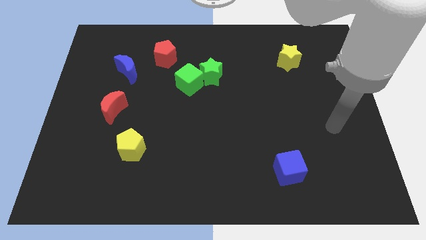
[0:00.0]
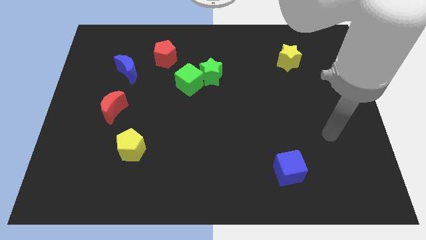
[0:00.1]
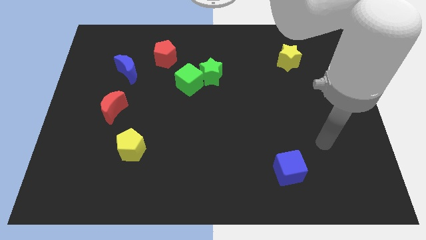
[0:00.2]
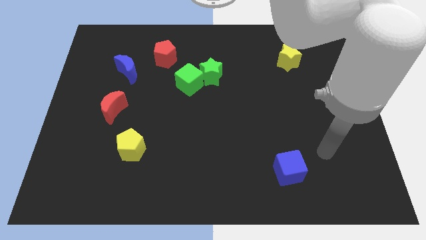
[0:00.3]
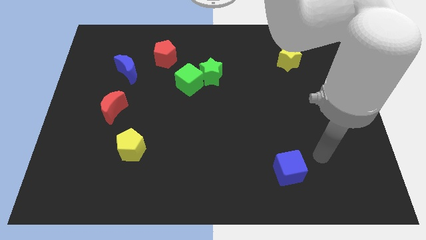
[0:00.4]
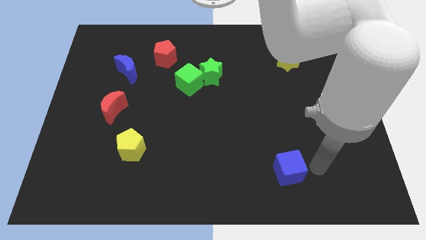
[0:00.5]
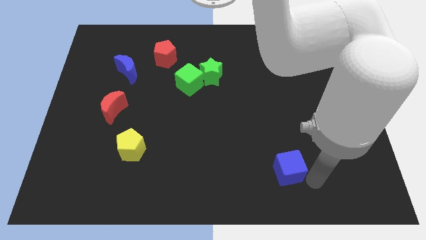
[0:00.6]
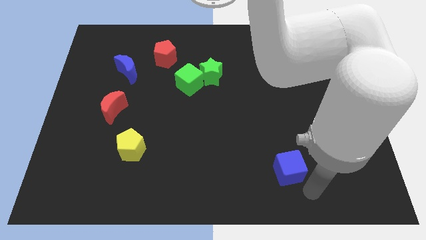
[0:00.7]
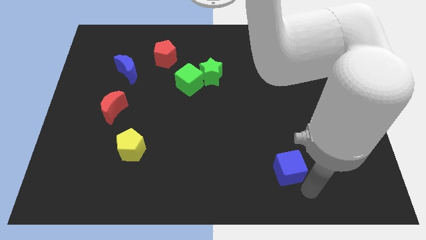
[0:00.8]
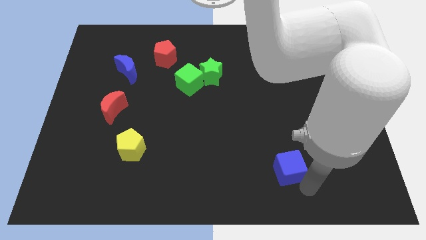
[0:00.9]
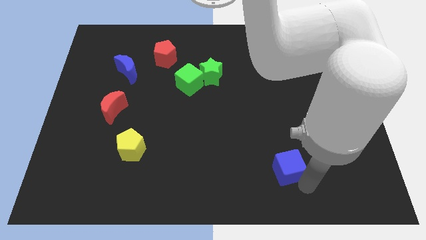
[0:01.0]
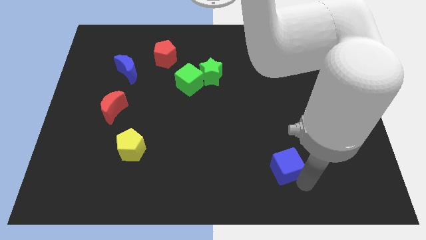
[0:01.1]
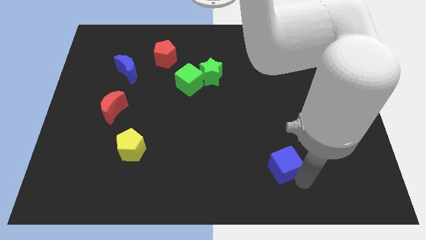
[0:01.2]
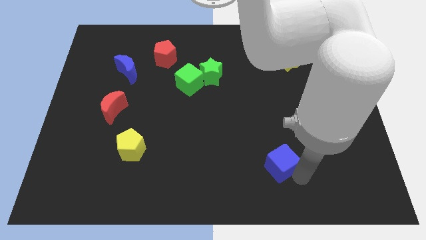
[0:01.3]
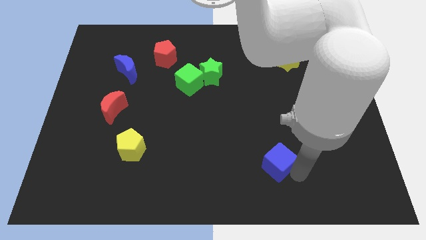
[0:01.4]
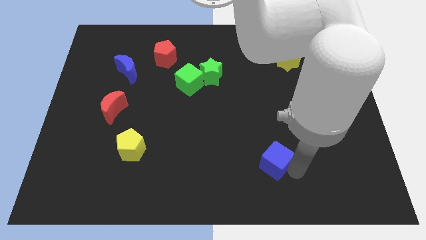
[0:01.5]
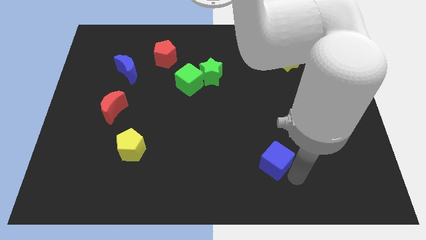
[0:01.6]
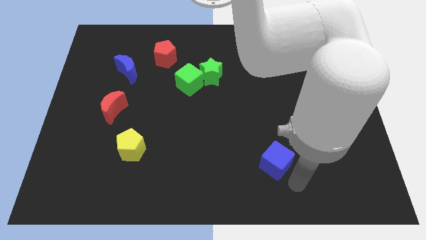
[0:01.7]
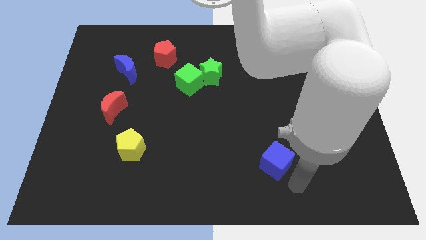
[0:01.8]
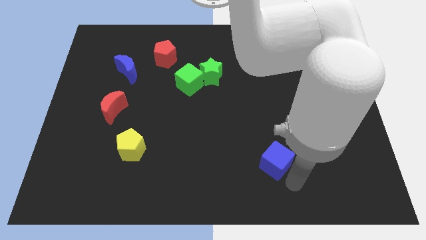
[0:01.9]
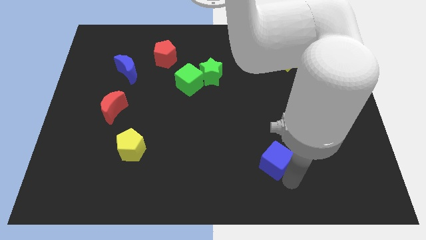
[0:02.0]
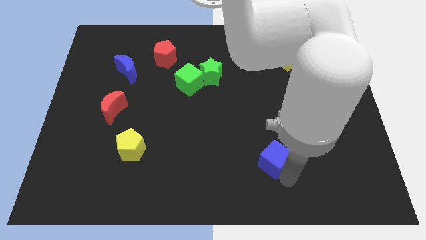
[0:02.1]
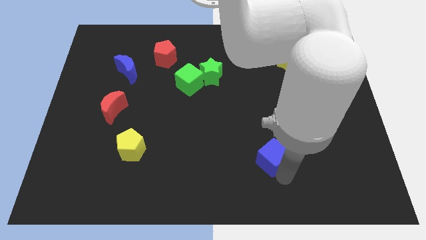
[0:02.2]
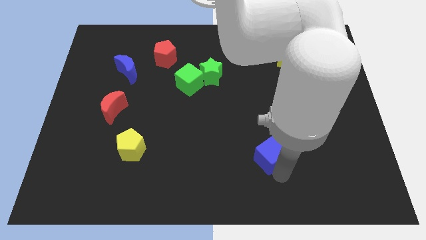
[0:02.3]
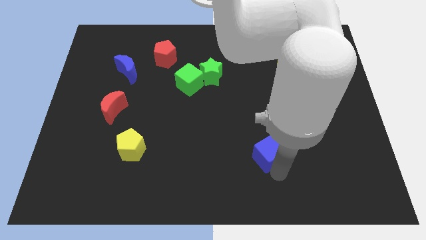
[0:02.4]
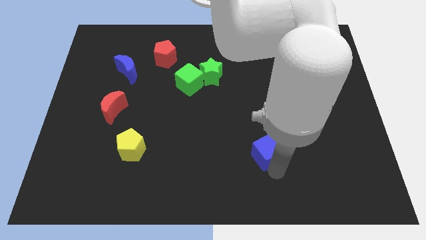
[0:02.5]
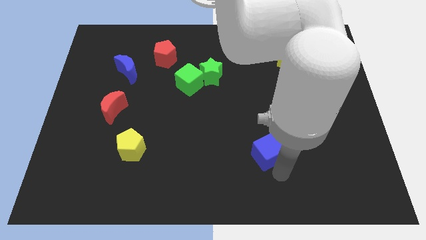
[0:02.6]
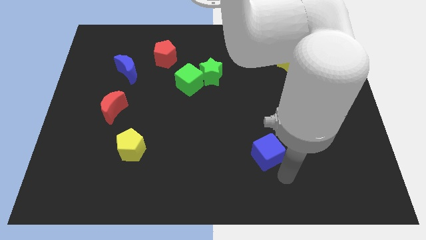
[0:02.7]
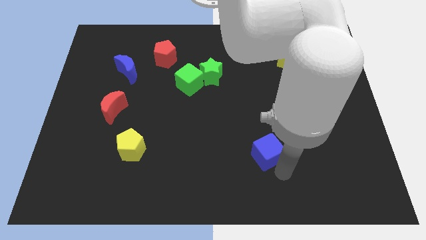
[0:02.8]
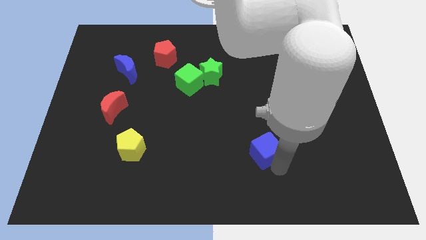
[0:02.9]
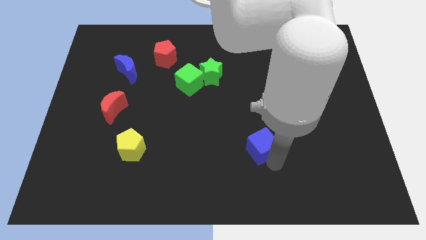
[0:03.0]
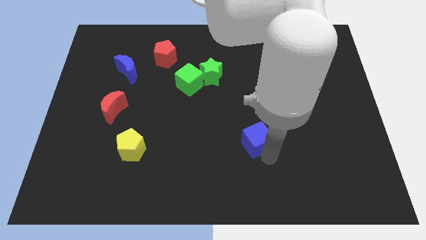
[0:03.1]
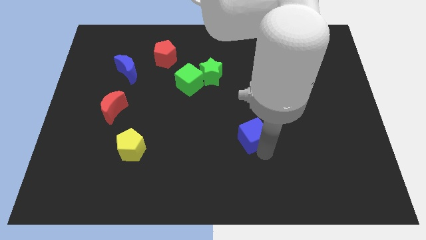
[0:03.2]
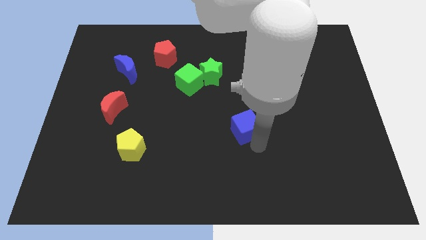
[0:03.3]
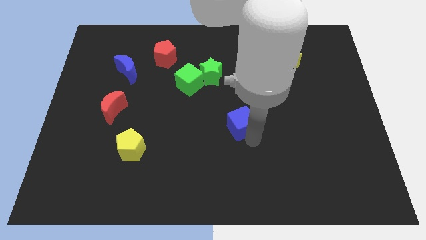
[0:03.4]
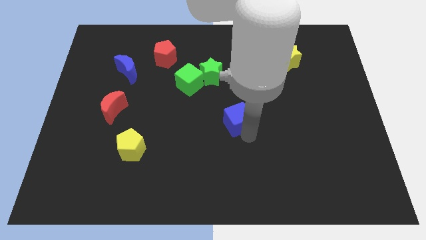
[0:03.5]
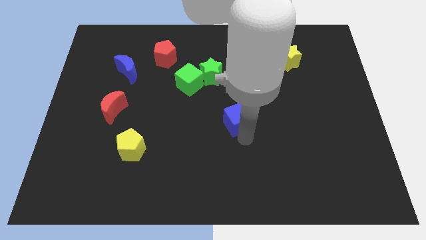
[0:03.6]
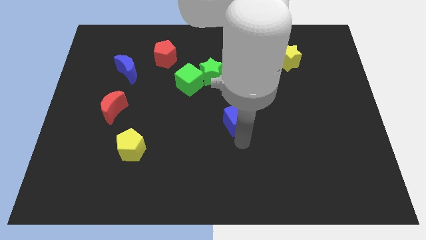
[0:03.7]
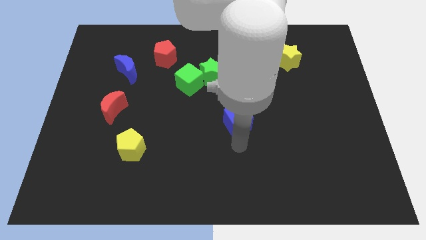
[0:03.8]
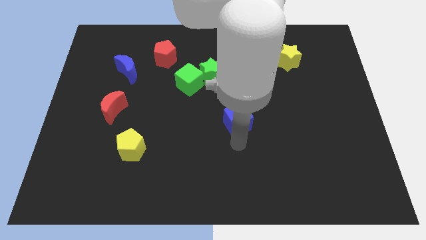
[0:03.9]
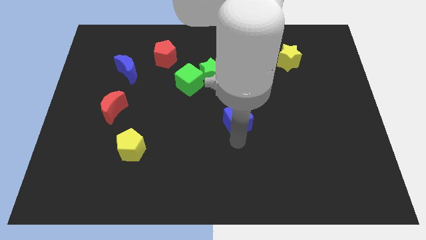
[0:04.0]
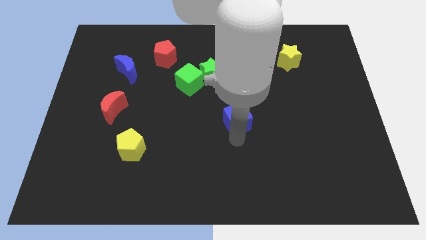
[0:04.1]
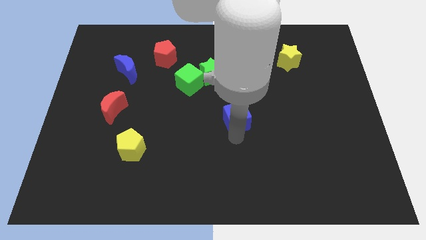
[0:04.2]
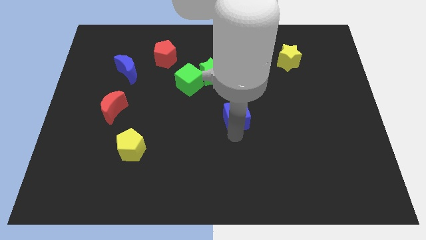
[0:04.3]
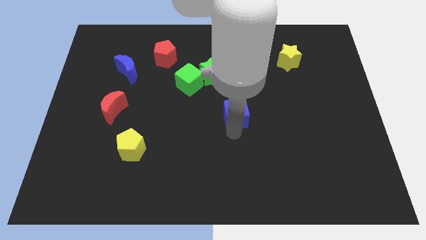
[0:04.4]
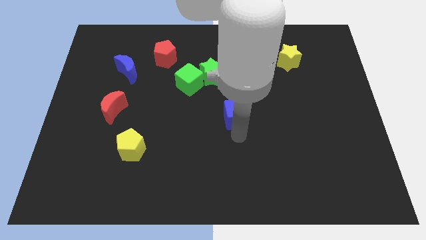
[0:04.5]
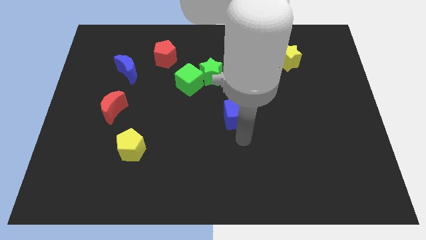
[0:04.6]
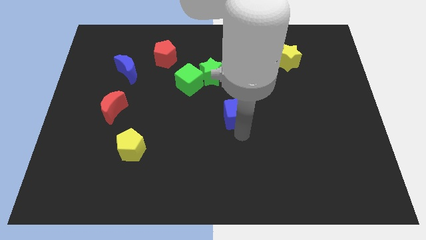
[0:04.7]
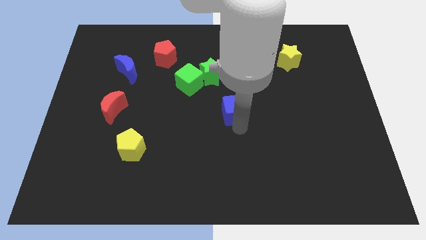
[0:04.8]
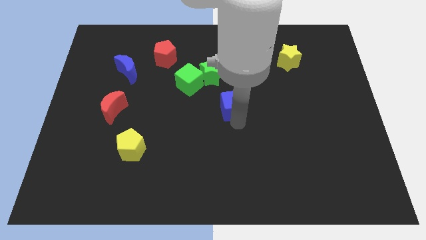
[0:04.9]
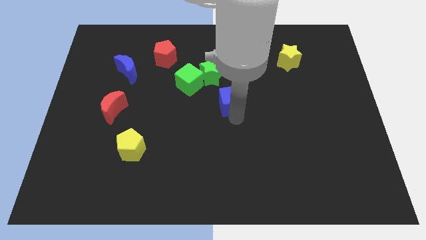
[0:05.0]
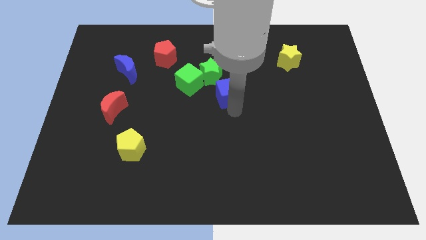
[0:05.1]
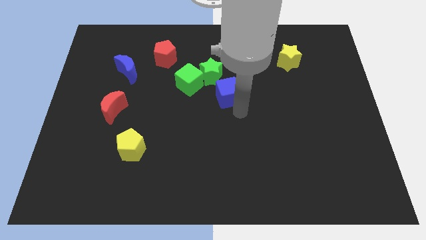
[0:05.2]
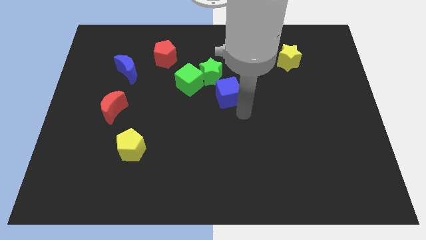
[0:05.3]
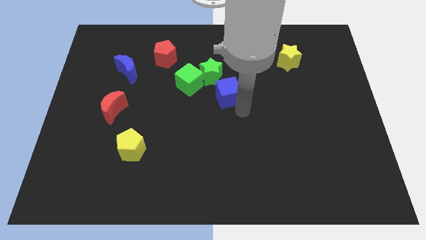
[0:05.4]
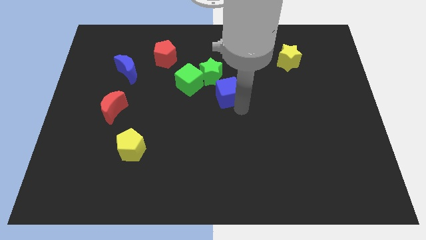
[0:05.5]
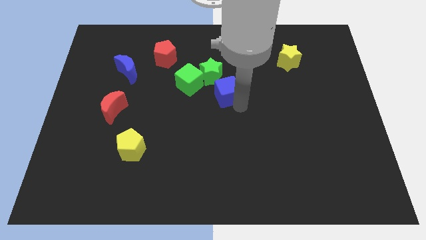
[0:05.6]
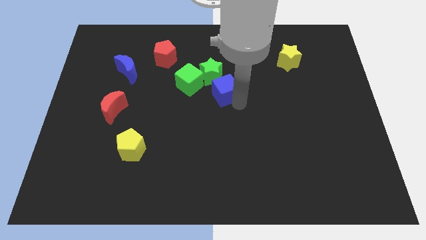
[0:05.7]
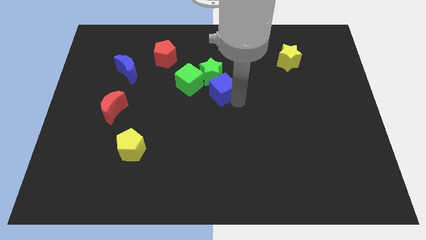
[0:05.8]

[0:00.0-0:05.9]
put the blue cube to the green star

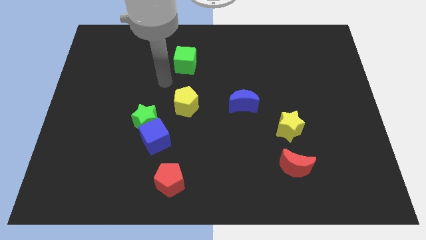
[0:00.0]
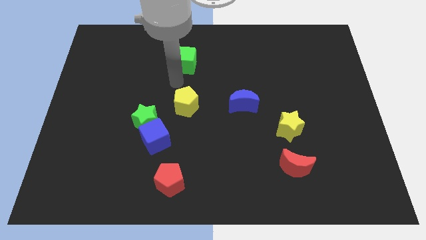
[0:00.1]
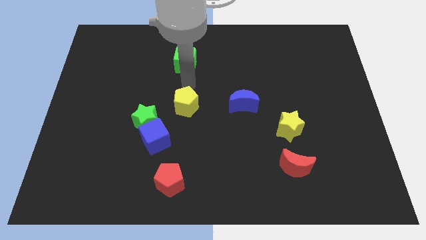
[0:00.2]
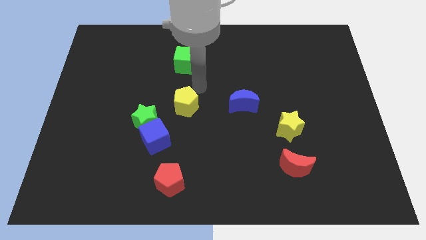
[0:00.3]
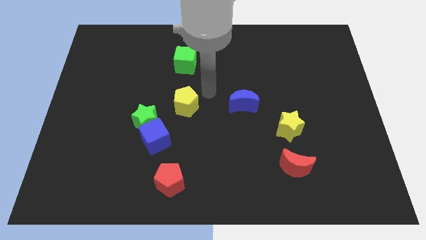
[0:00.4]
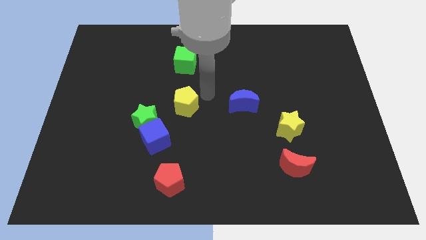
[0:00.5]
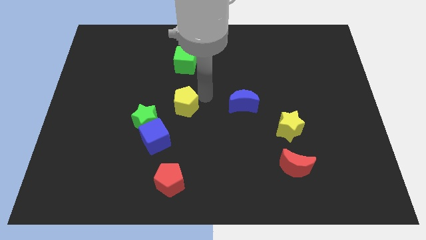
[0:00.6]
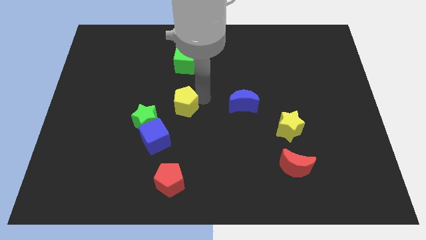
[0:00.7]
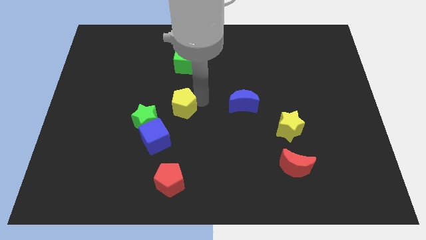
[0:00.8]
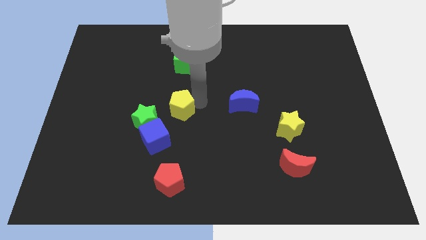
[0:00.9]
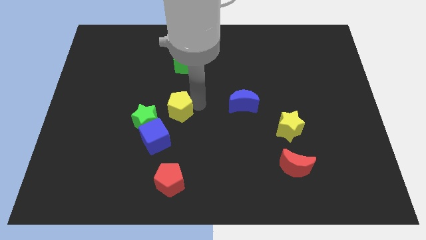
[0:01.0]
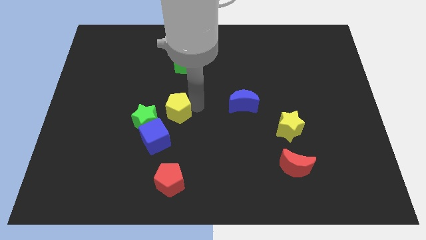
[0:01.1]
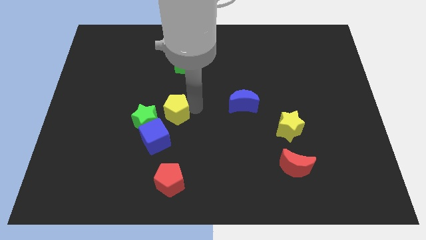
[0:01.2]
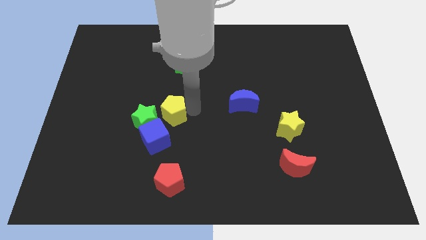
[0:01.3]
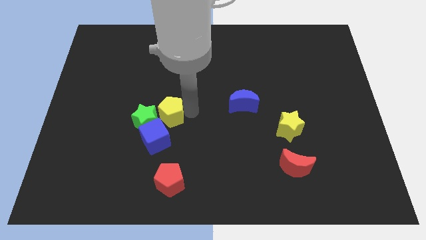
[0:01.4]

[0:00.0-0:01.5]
move the yellow pentagon next to the green star
